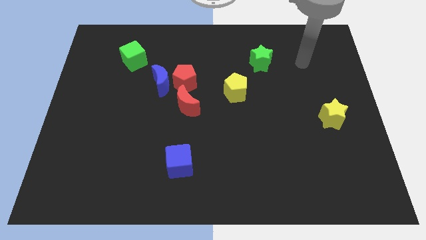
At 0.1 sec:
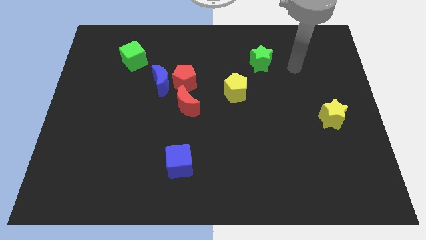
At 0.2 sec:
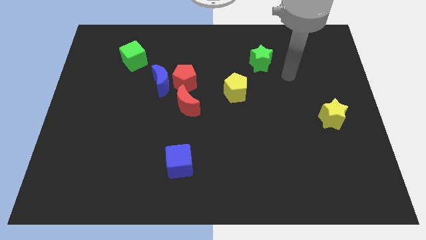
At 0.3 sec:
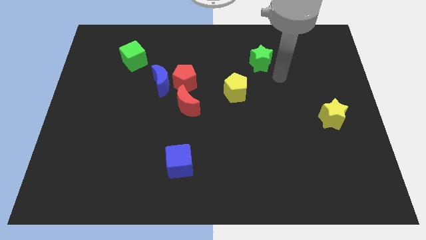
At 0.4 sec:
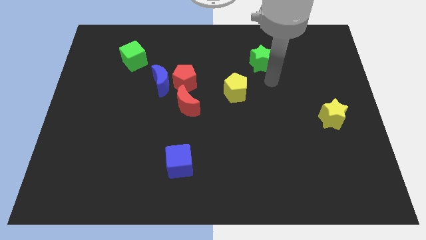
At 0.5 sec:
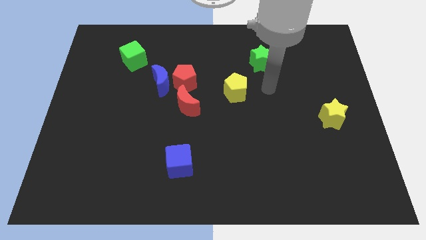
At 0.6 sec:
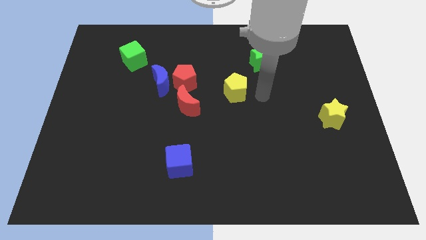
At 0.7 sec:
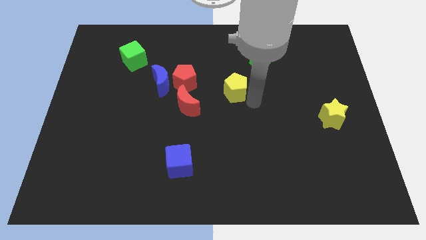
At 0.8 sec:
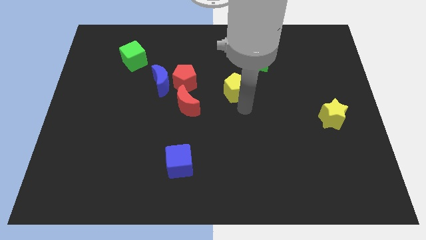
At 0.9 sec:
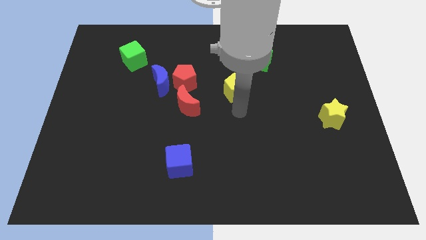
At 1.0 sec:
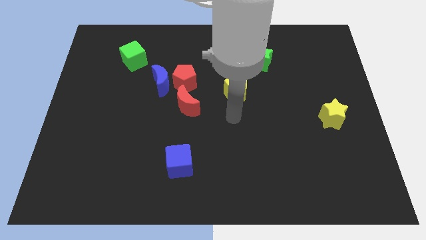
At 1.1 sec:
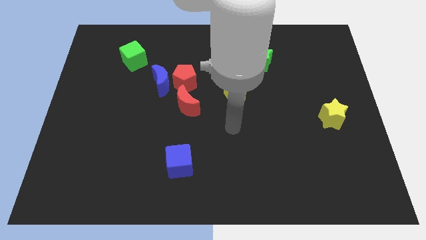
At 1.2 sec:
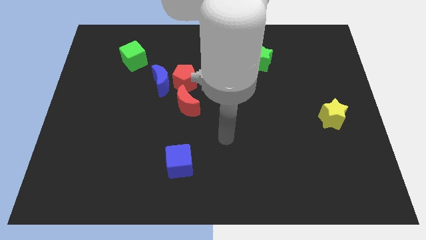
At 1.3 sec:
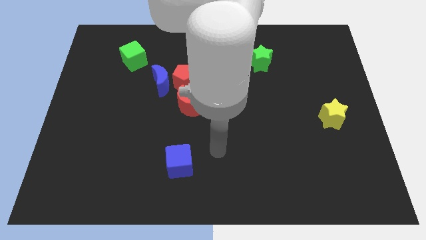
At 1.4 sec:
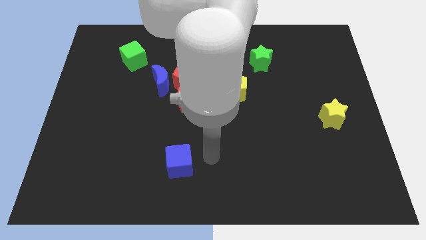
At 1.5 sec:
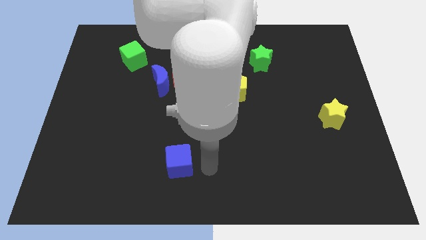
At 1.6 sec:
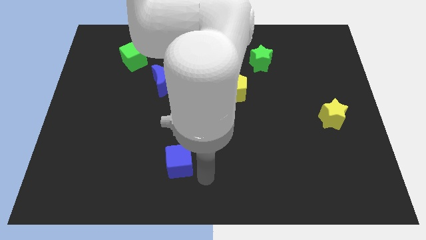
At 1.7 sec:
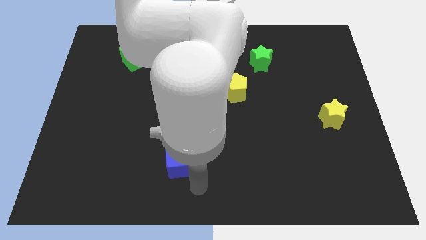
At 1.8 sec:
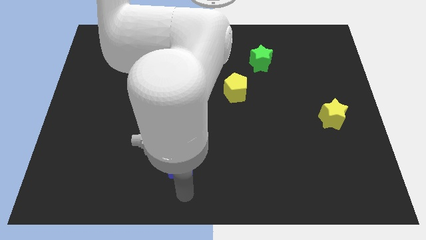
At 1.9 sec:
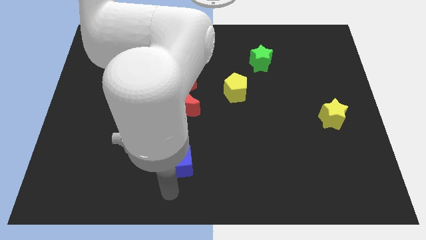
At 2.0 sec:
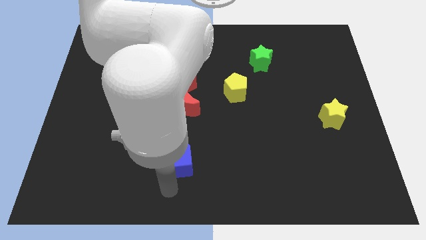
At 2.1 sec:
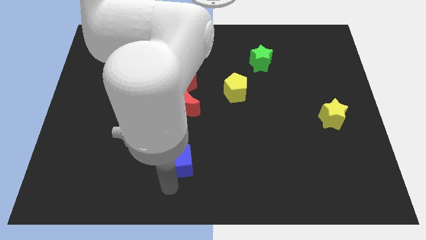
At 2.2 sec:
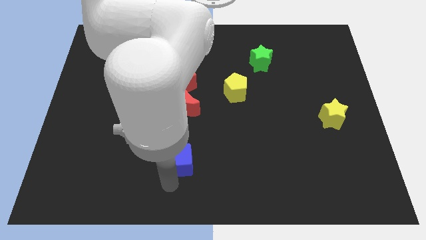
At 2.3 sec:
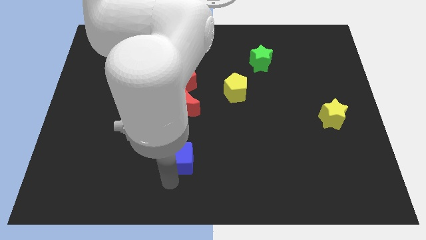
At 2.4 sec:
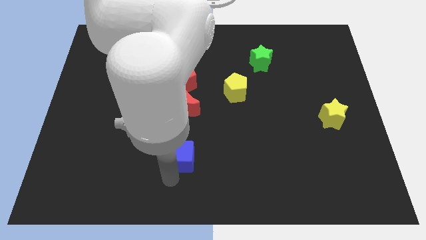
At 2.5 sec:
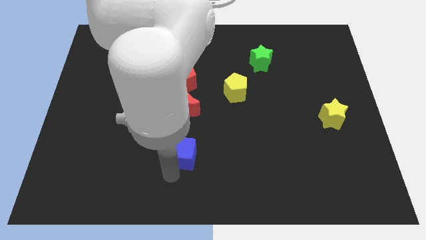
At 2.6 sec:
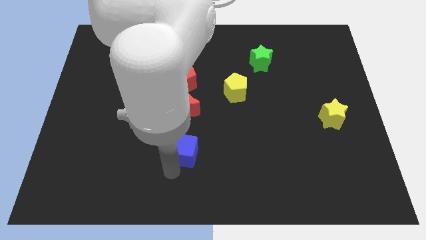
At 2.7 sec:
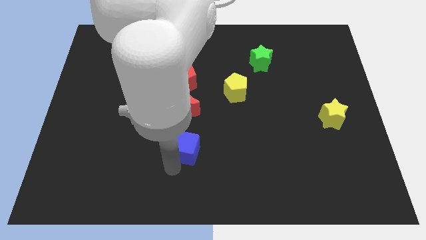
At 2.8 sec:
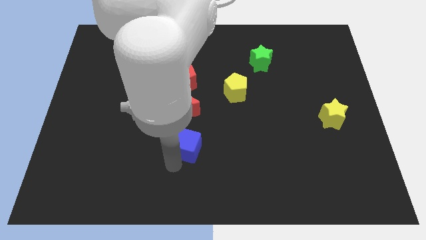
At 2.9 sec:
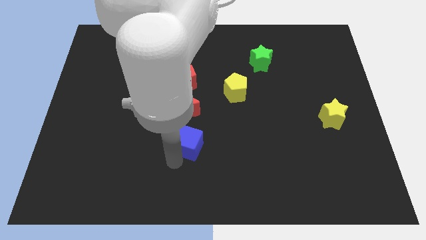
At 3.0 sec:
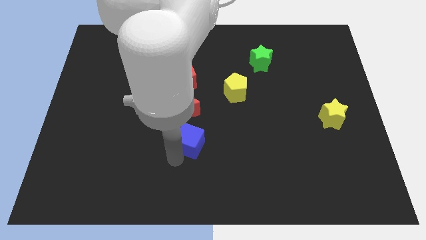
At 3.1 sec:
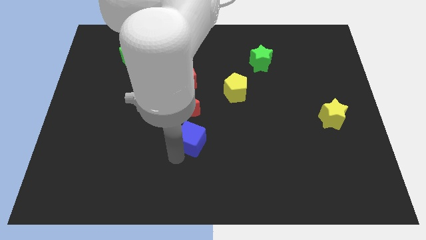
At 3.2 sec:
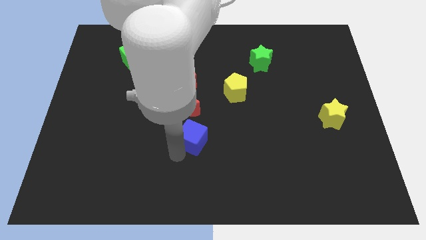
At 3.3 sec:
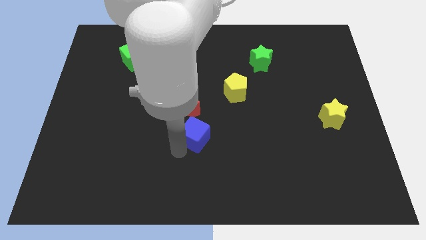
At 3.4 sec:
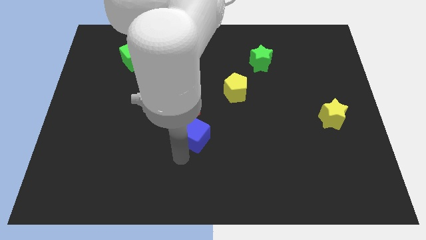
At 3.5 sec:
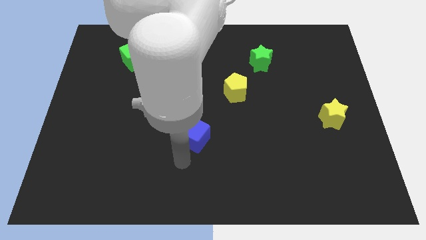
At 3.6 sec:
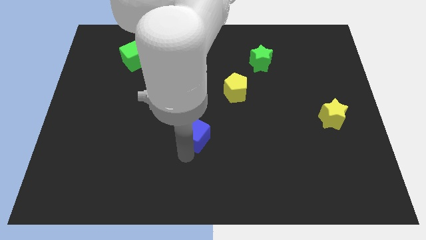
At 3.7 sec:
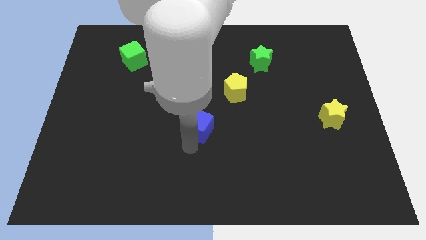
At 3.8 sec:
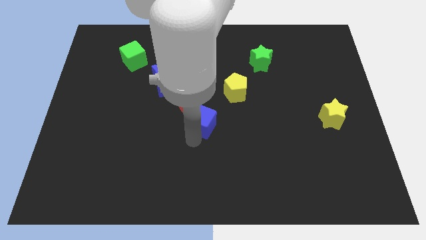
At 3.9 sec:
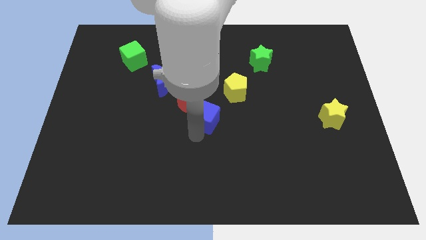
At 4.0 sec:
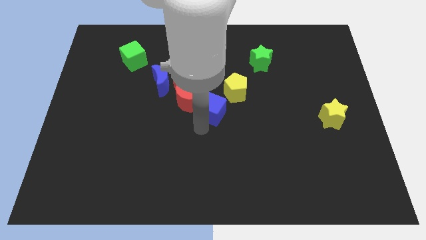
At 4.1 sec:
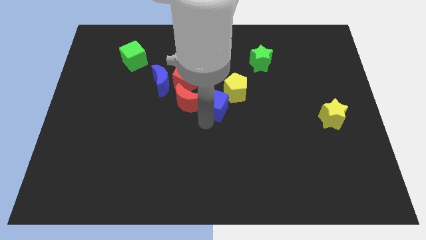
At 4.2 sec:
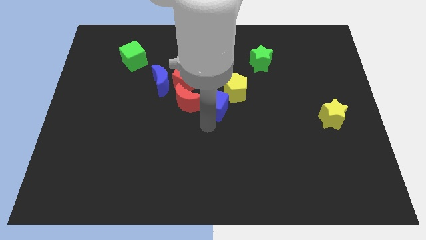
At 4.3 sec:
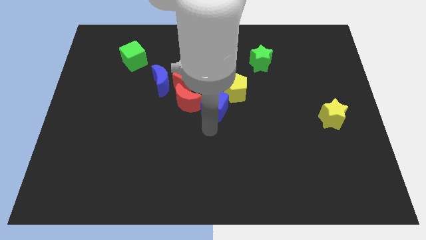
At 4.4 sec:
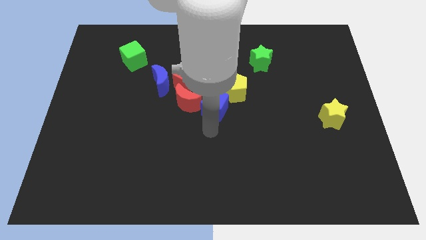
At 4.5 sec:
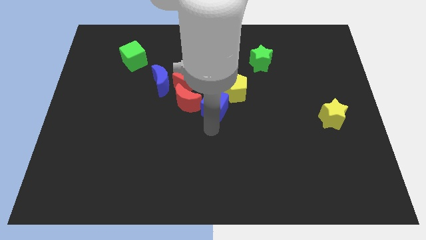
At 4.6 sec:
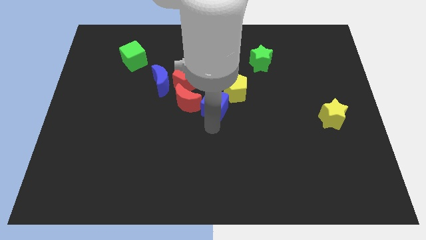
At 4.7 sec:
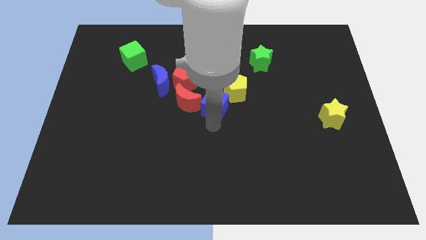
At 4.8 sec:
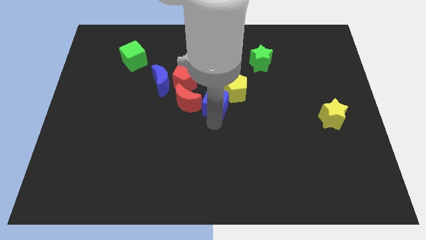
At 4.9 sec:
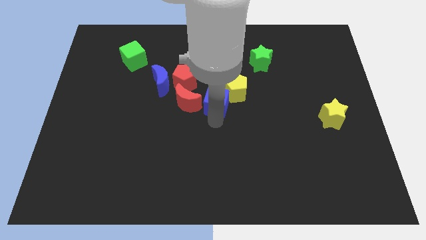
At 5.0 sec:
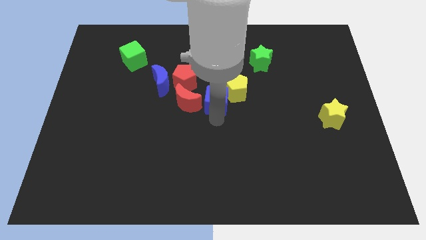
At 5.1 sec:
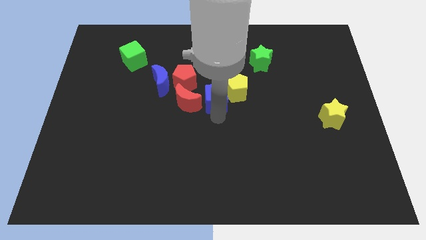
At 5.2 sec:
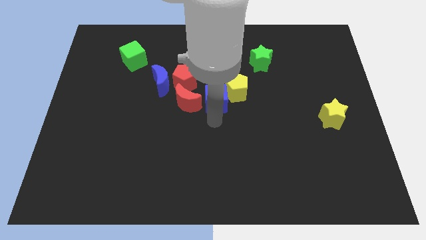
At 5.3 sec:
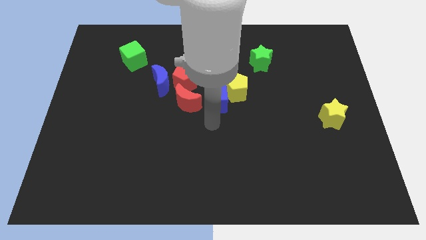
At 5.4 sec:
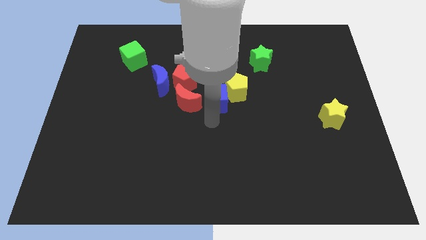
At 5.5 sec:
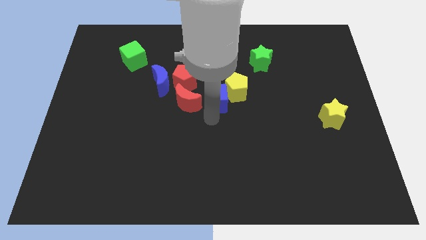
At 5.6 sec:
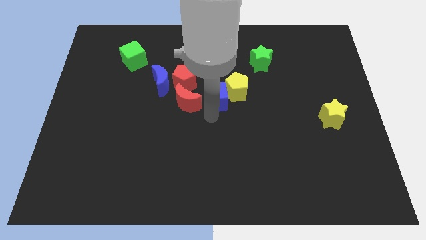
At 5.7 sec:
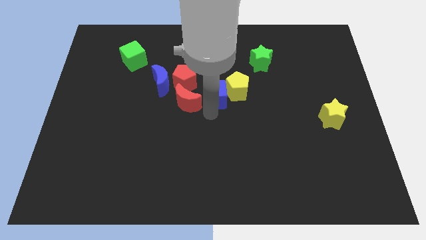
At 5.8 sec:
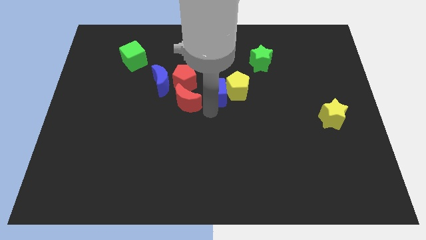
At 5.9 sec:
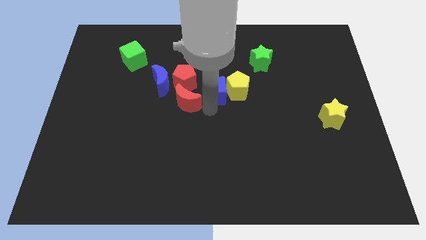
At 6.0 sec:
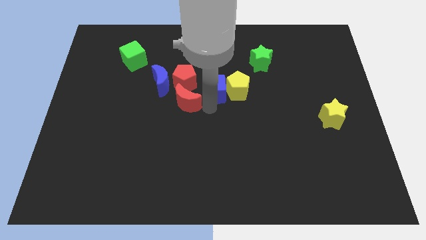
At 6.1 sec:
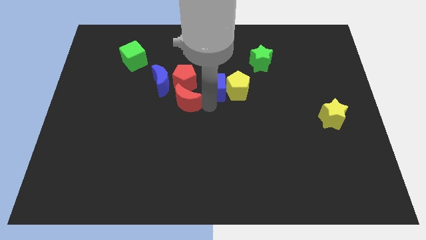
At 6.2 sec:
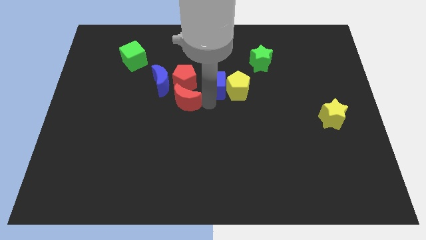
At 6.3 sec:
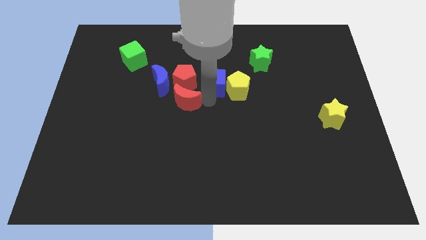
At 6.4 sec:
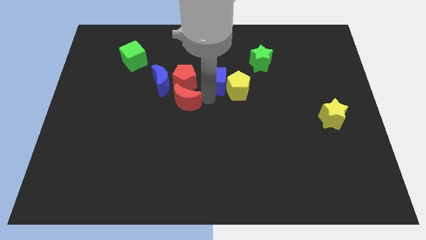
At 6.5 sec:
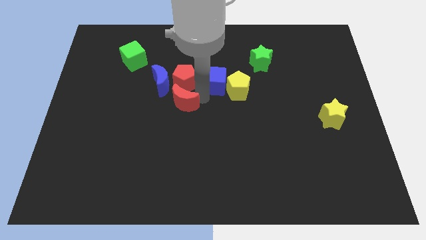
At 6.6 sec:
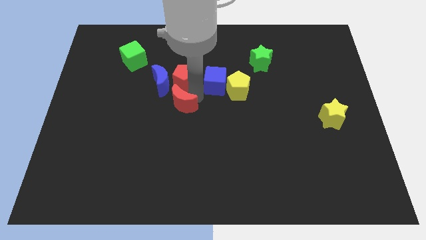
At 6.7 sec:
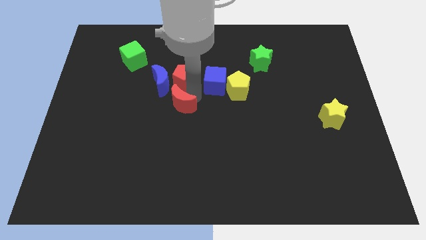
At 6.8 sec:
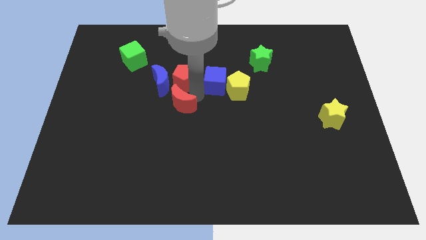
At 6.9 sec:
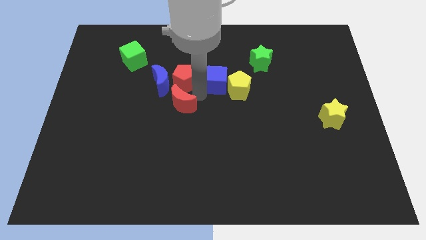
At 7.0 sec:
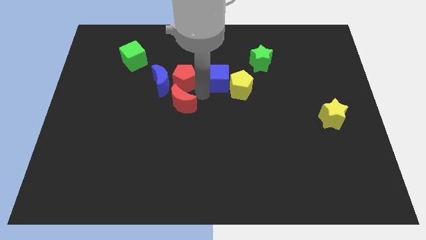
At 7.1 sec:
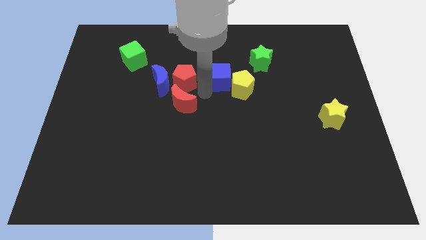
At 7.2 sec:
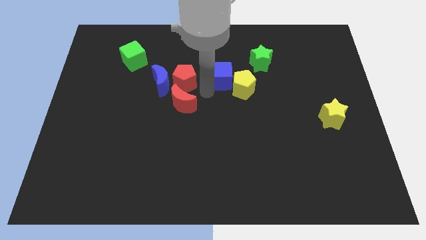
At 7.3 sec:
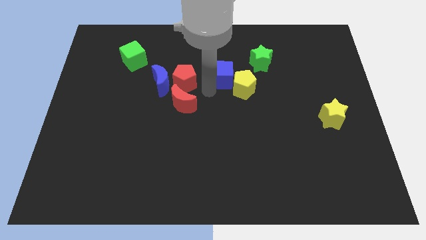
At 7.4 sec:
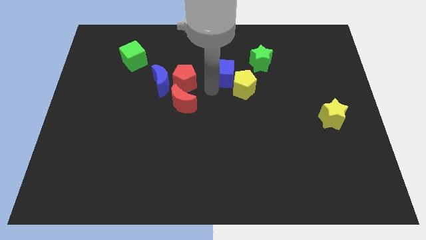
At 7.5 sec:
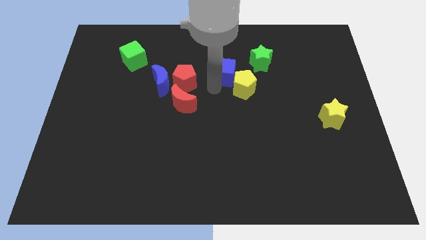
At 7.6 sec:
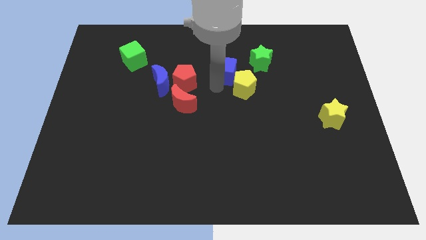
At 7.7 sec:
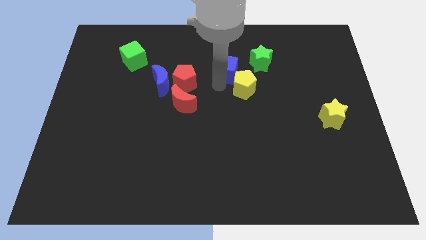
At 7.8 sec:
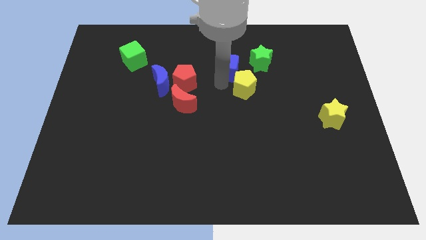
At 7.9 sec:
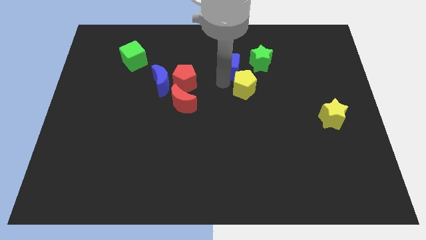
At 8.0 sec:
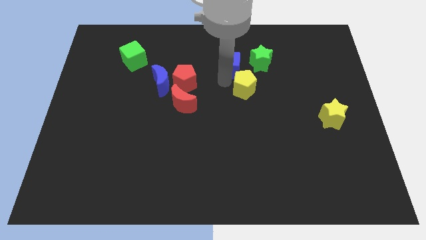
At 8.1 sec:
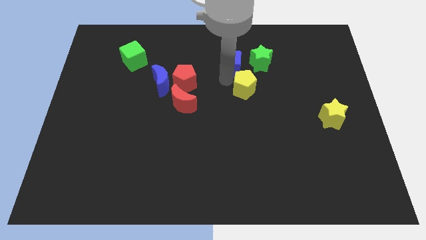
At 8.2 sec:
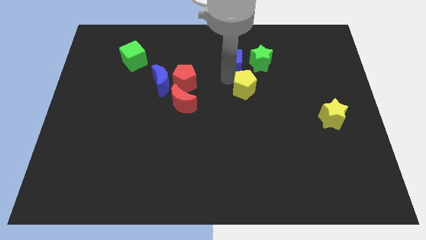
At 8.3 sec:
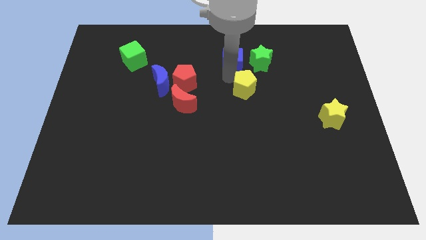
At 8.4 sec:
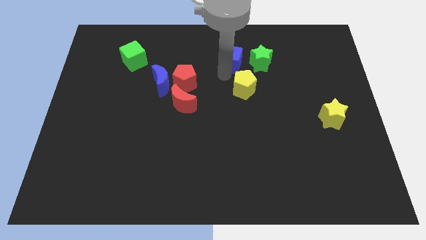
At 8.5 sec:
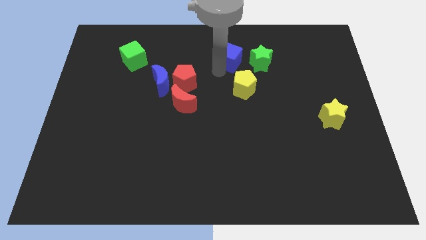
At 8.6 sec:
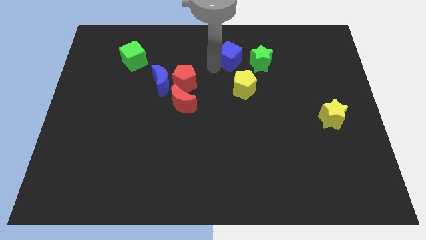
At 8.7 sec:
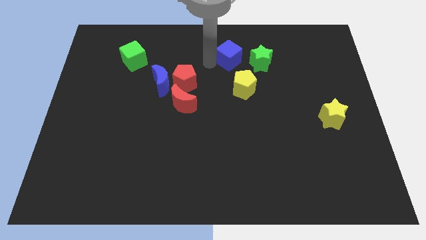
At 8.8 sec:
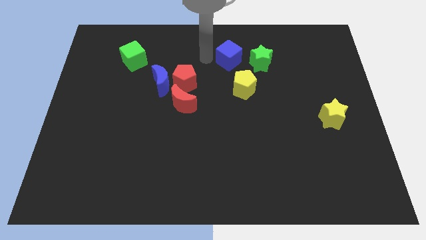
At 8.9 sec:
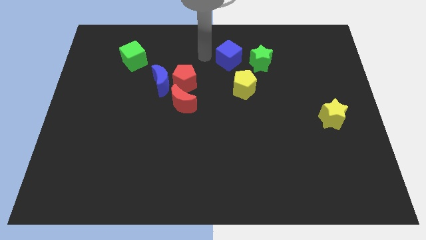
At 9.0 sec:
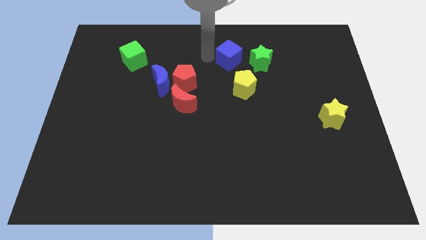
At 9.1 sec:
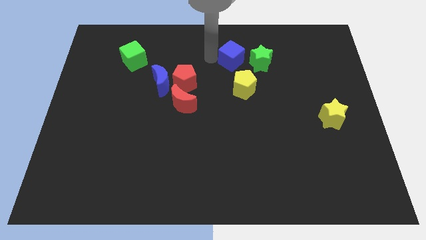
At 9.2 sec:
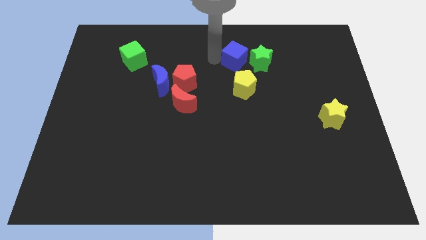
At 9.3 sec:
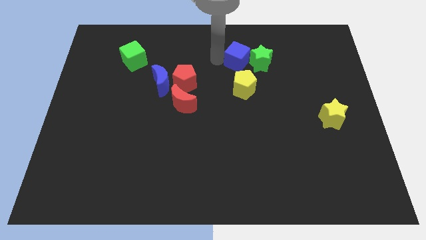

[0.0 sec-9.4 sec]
slide the blue cube towards the green star
